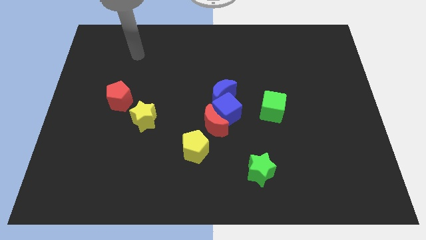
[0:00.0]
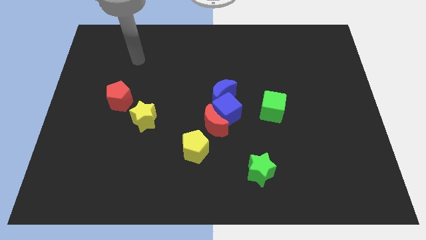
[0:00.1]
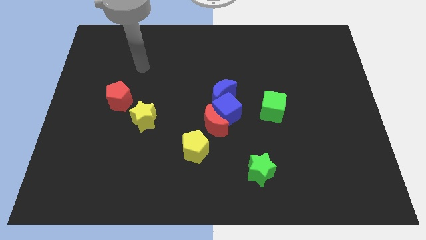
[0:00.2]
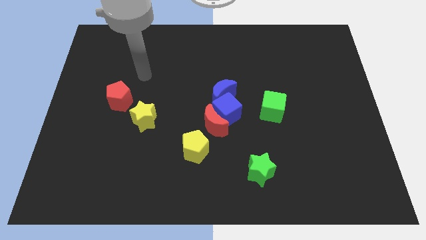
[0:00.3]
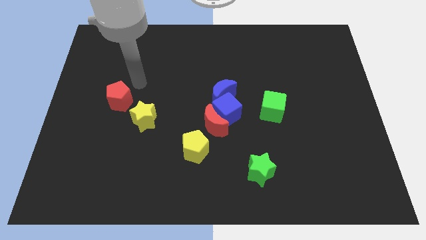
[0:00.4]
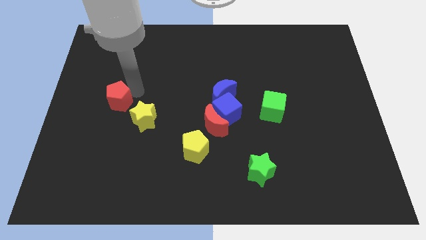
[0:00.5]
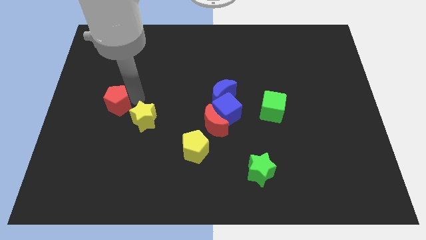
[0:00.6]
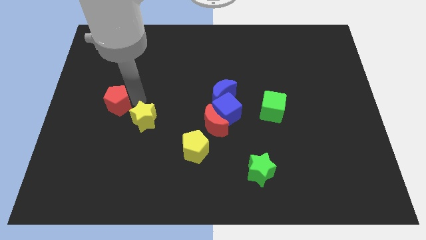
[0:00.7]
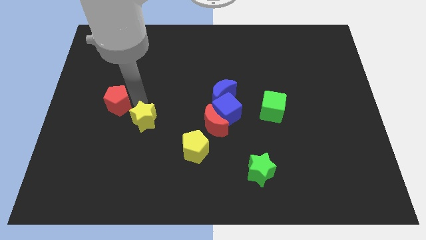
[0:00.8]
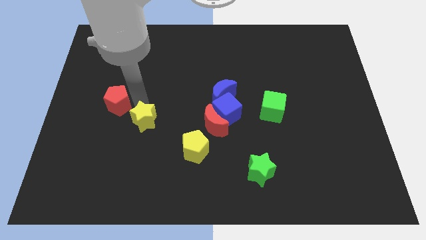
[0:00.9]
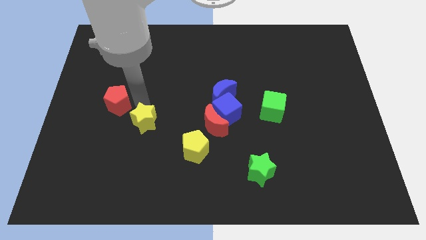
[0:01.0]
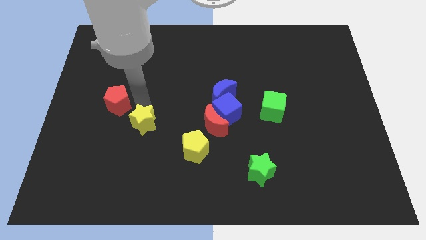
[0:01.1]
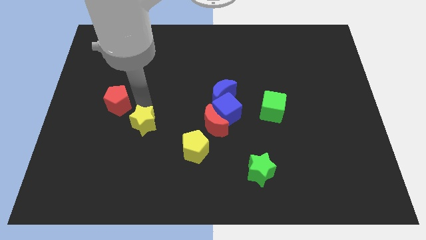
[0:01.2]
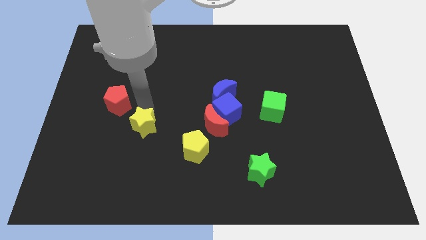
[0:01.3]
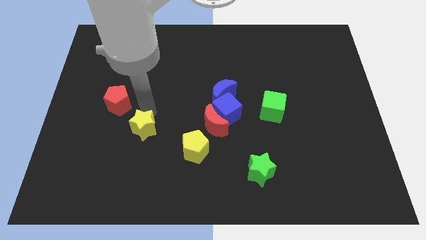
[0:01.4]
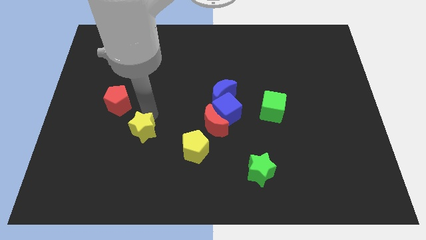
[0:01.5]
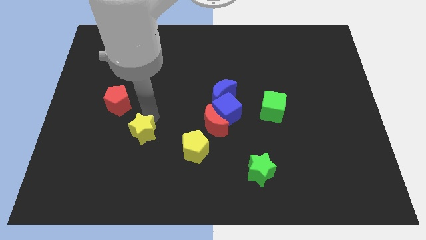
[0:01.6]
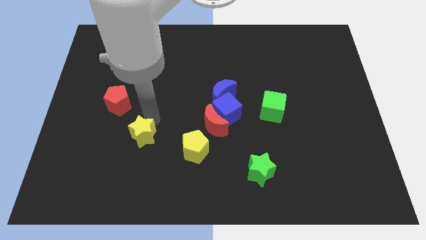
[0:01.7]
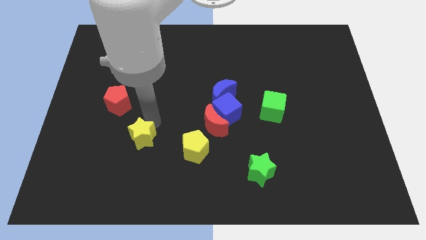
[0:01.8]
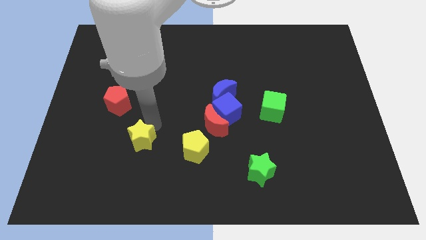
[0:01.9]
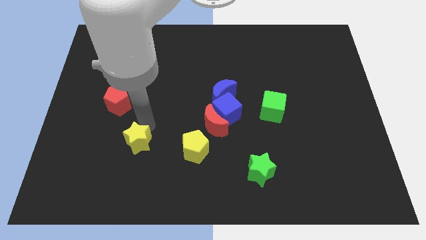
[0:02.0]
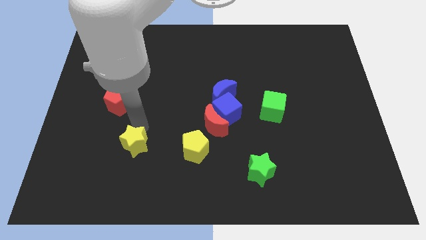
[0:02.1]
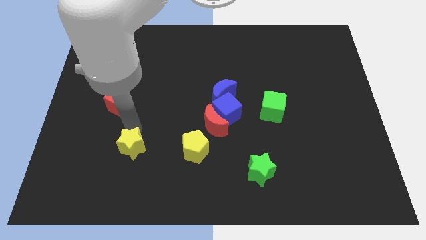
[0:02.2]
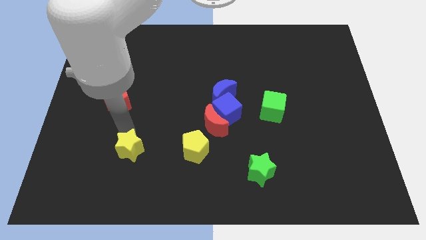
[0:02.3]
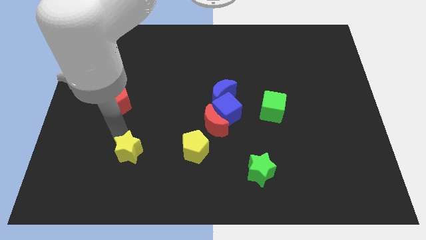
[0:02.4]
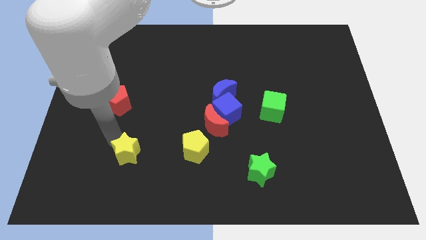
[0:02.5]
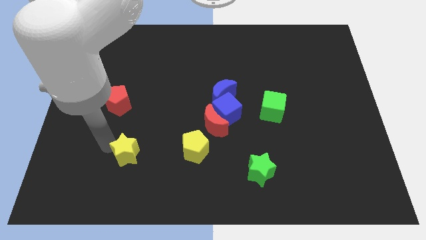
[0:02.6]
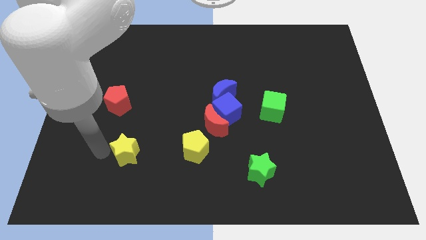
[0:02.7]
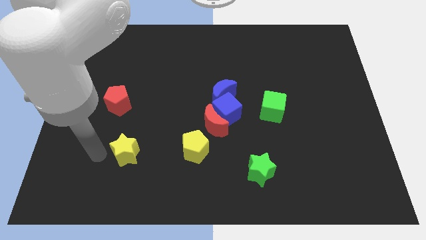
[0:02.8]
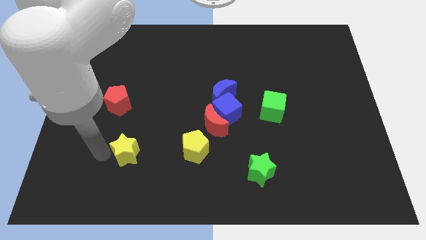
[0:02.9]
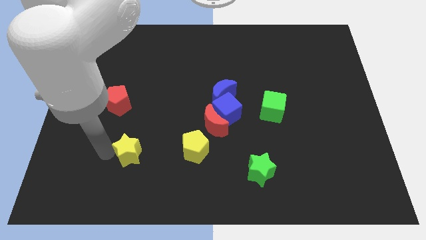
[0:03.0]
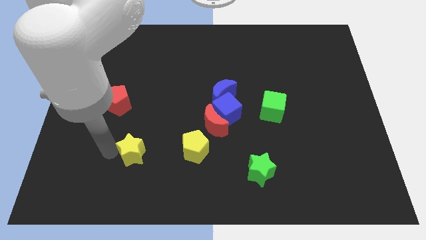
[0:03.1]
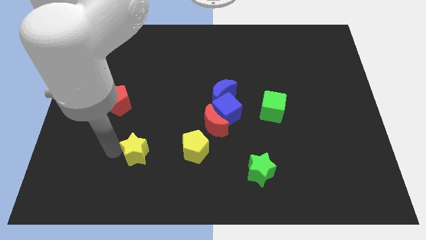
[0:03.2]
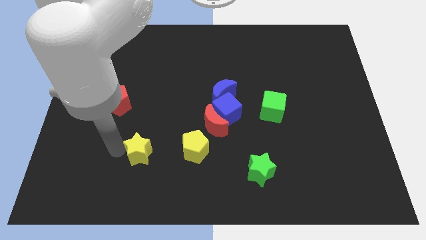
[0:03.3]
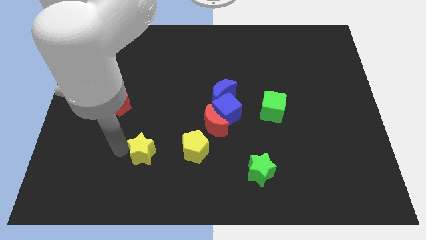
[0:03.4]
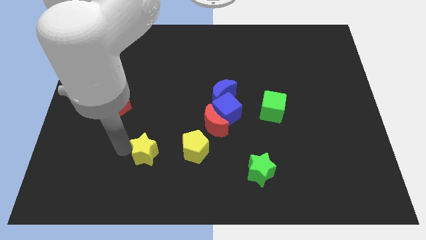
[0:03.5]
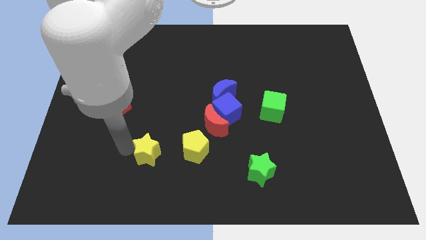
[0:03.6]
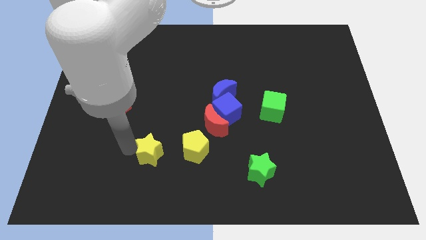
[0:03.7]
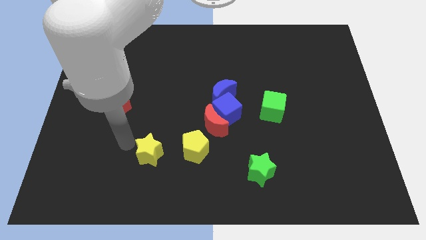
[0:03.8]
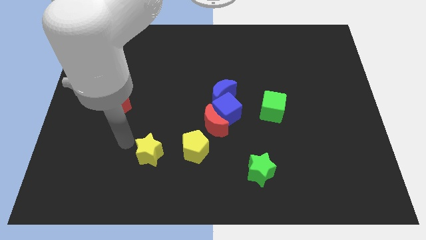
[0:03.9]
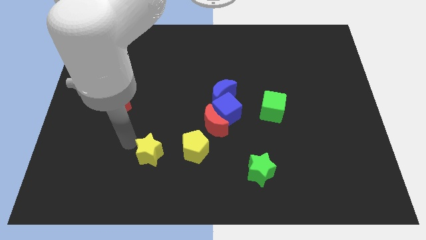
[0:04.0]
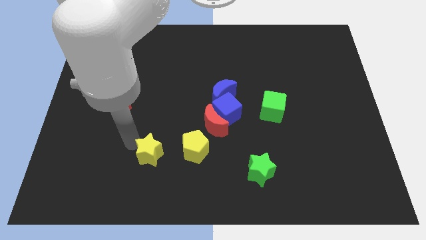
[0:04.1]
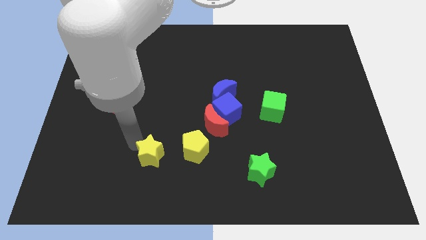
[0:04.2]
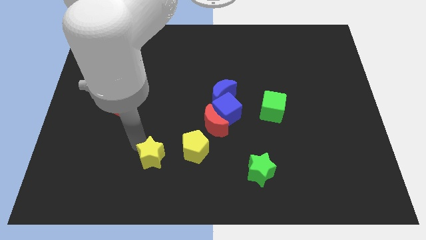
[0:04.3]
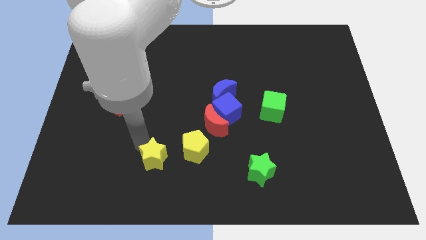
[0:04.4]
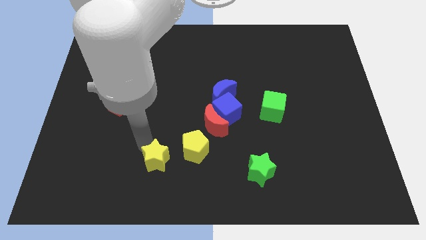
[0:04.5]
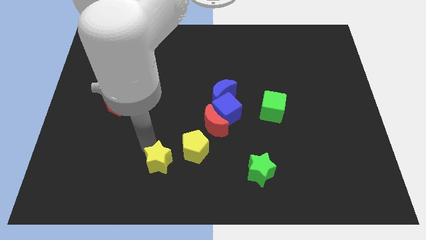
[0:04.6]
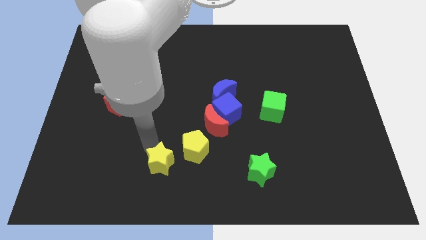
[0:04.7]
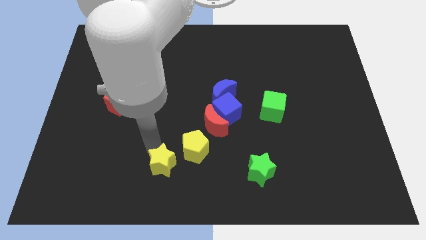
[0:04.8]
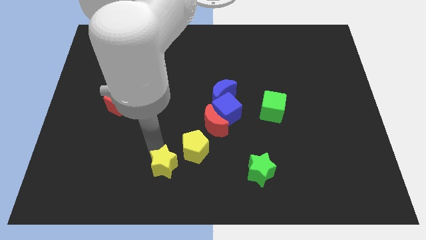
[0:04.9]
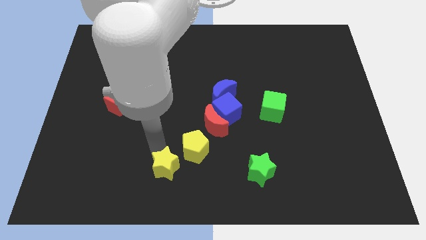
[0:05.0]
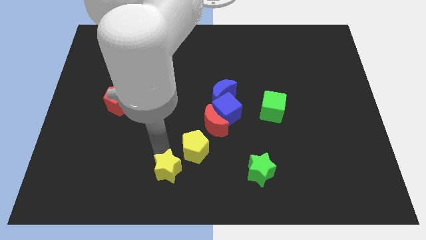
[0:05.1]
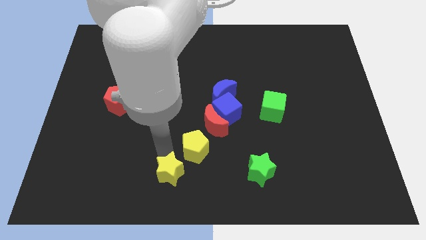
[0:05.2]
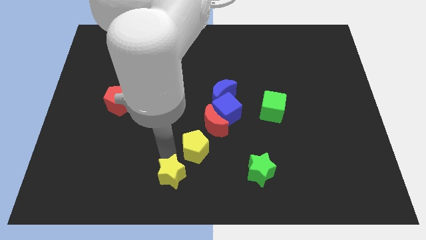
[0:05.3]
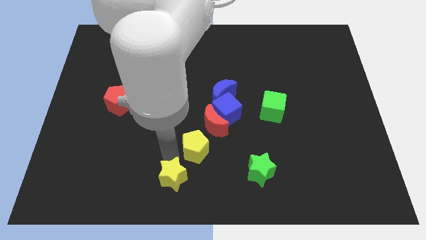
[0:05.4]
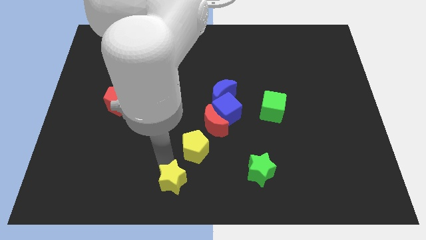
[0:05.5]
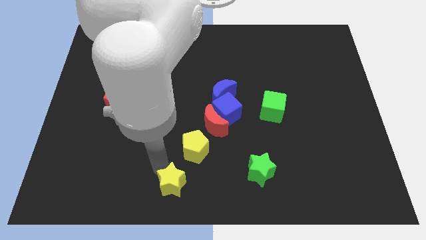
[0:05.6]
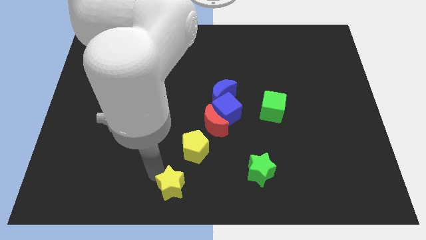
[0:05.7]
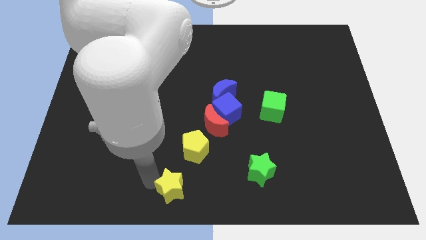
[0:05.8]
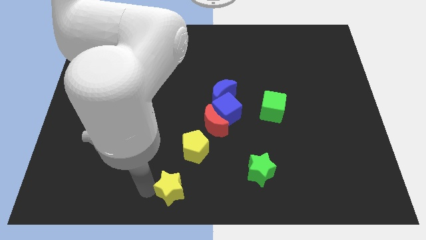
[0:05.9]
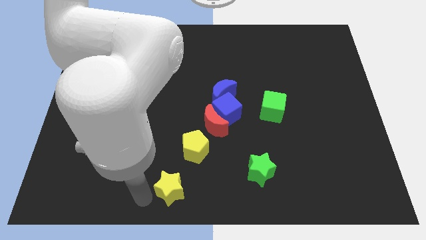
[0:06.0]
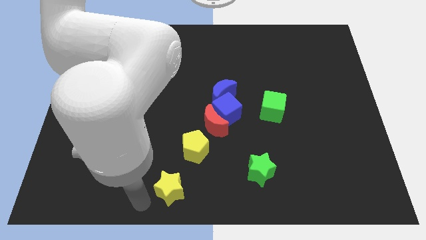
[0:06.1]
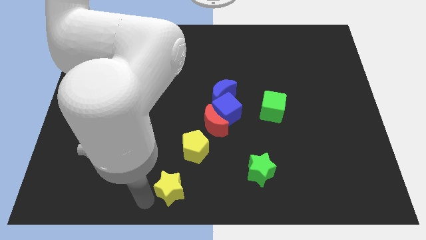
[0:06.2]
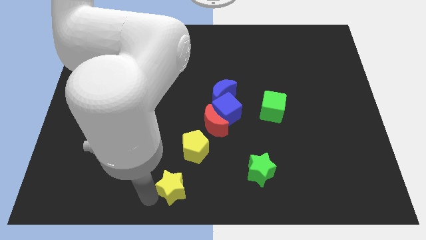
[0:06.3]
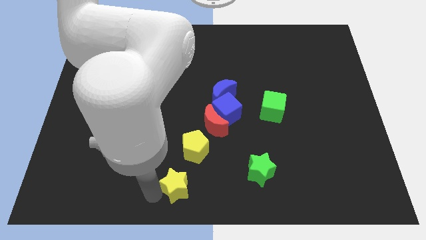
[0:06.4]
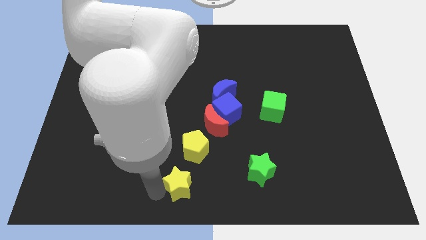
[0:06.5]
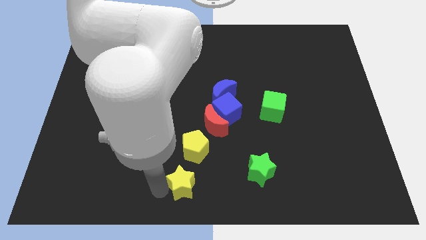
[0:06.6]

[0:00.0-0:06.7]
put the yellow star left of the green star

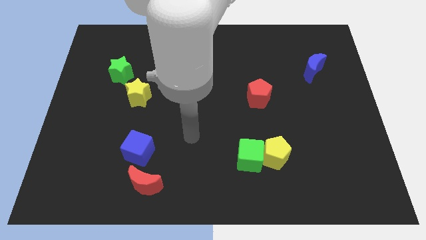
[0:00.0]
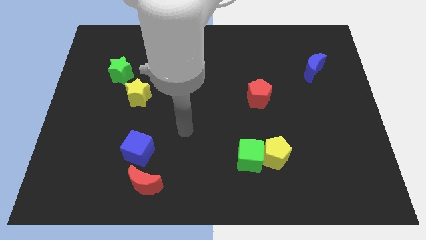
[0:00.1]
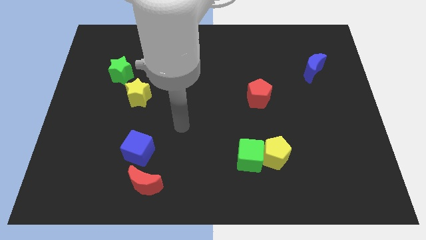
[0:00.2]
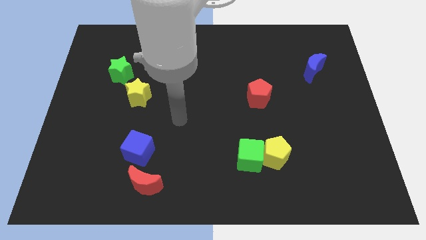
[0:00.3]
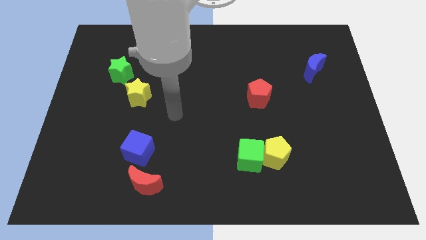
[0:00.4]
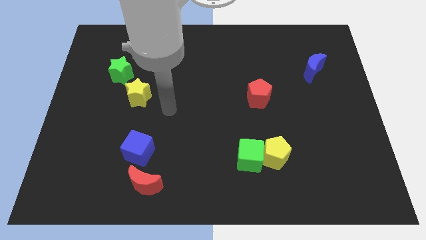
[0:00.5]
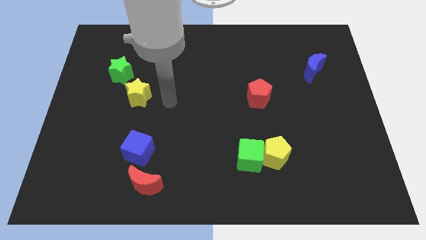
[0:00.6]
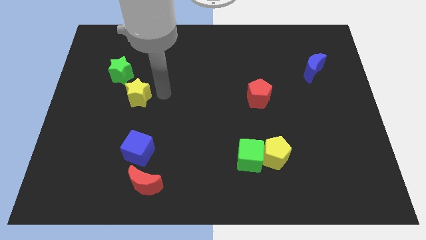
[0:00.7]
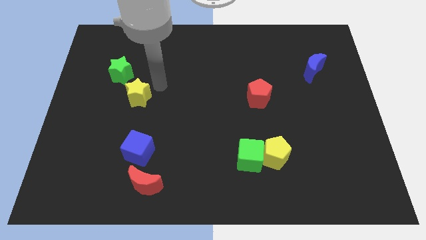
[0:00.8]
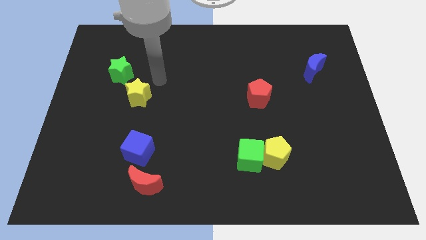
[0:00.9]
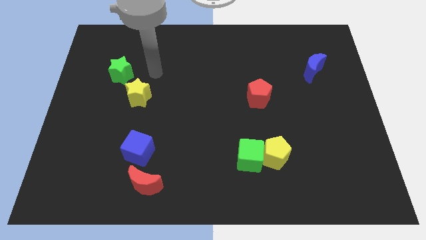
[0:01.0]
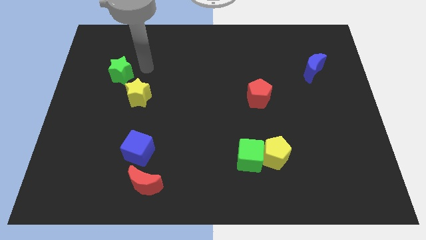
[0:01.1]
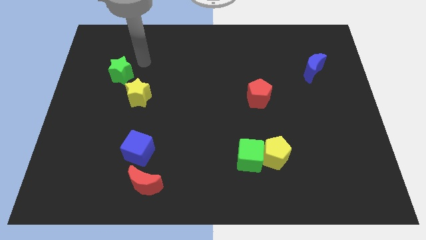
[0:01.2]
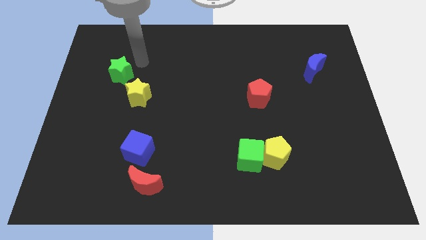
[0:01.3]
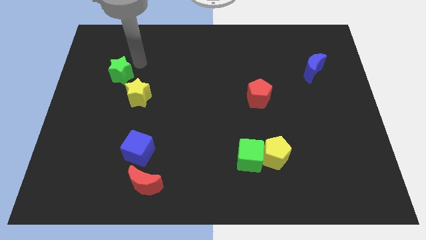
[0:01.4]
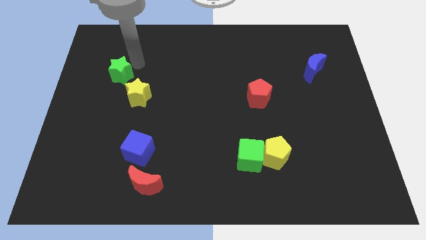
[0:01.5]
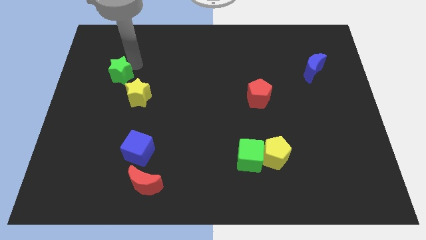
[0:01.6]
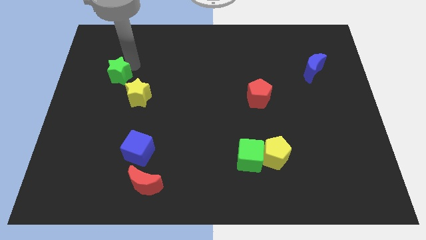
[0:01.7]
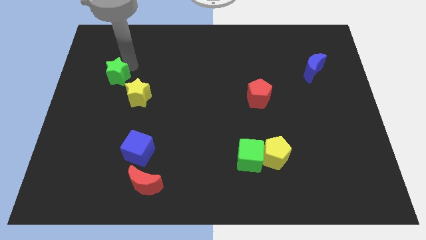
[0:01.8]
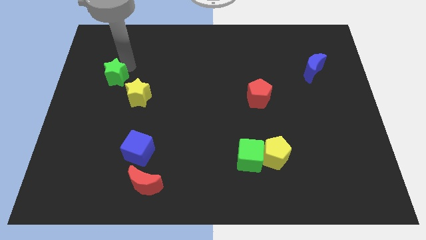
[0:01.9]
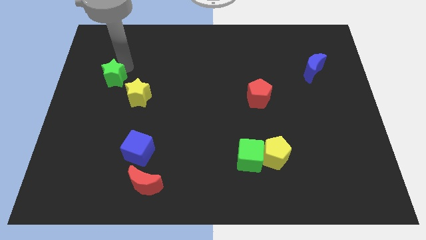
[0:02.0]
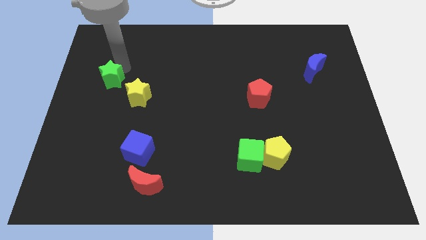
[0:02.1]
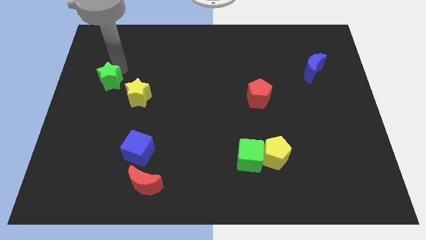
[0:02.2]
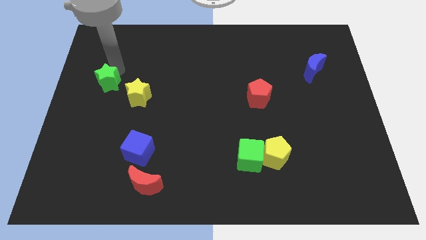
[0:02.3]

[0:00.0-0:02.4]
slide the green star to the left side of the yellow star
